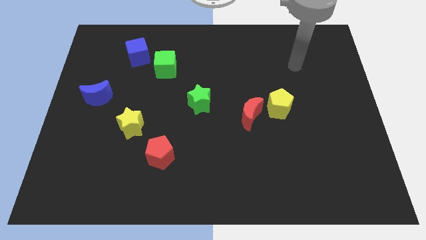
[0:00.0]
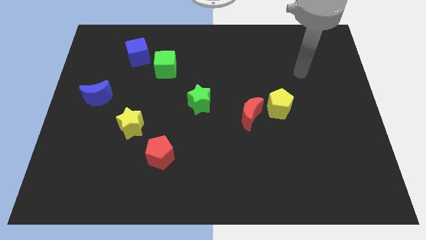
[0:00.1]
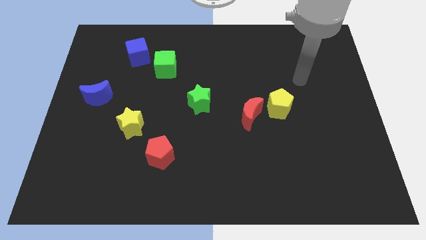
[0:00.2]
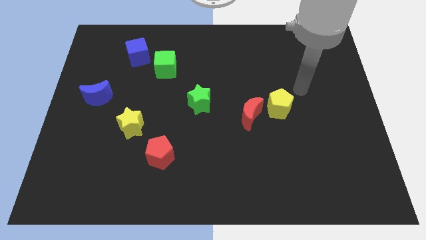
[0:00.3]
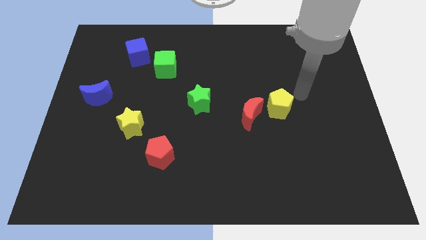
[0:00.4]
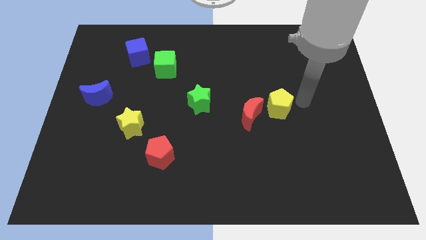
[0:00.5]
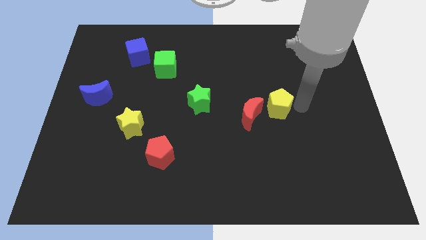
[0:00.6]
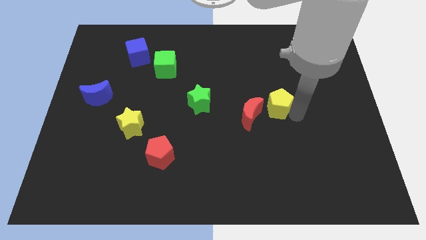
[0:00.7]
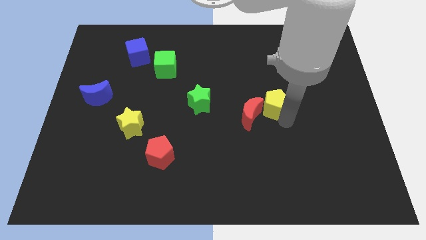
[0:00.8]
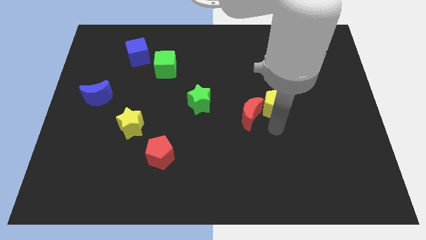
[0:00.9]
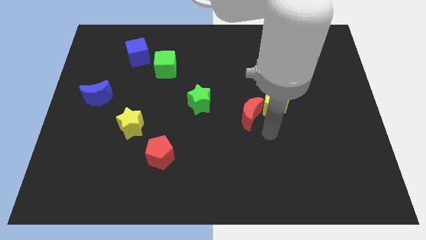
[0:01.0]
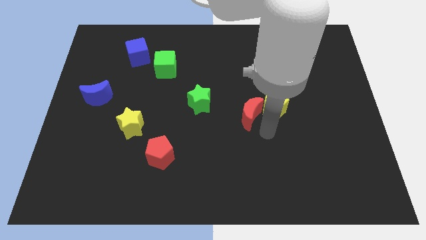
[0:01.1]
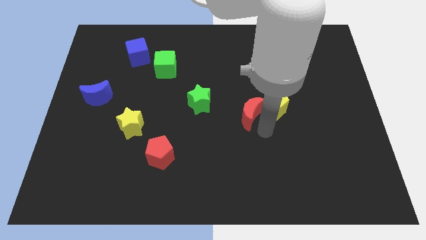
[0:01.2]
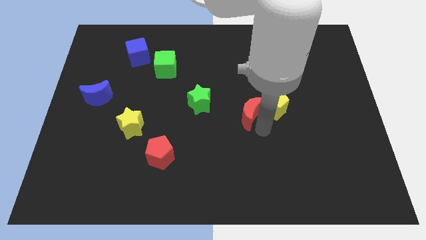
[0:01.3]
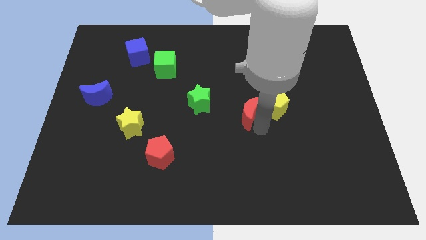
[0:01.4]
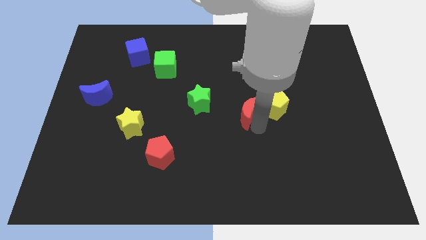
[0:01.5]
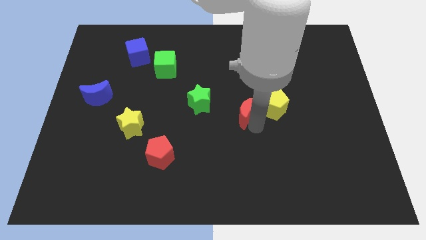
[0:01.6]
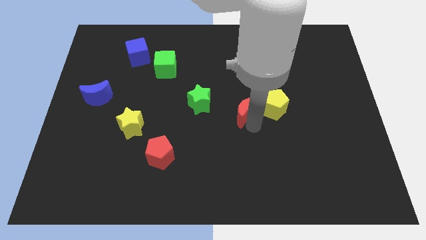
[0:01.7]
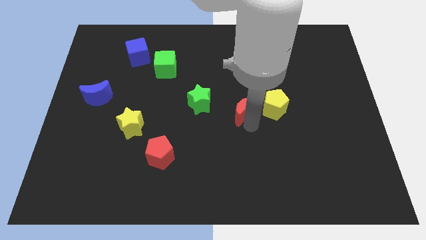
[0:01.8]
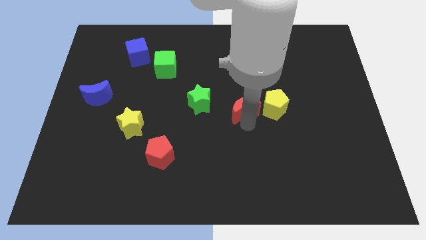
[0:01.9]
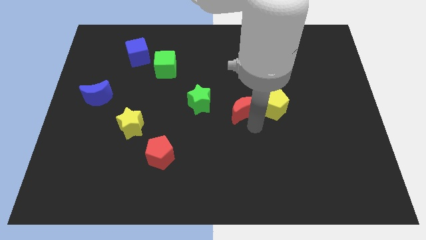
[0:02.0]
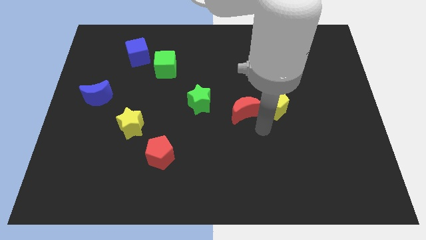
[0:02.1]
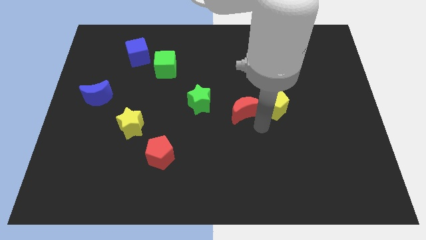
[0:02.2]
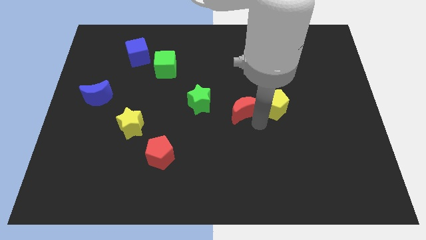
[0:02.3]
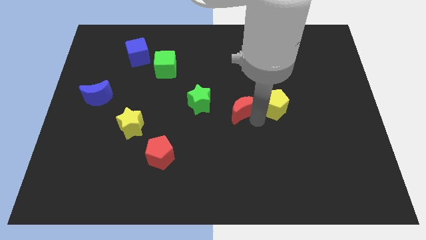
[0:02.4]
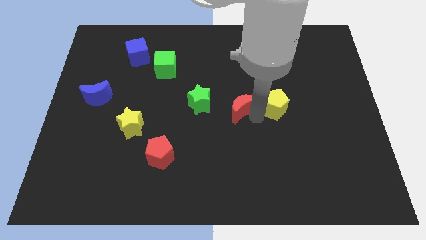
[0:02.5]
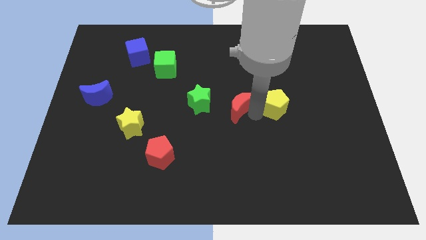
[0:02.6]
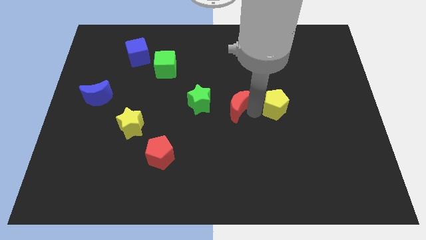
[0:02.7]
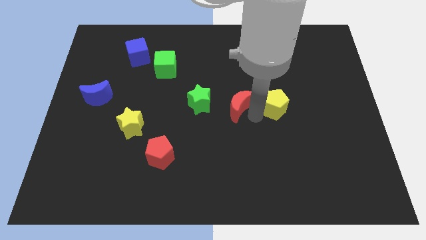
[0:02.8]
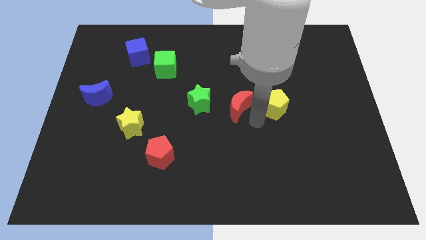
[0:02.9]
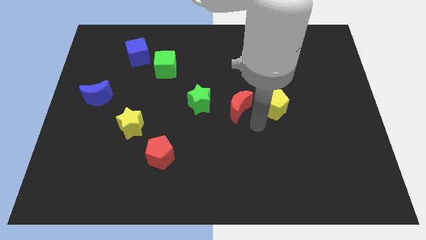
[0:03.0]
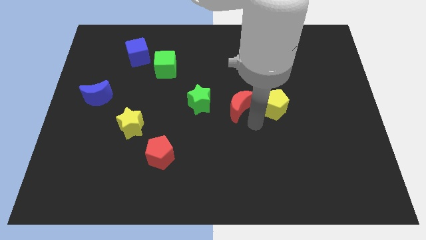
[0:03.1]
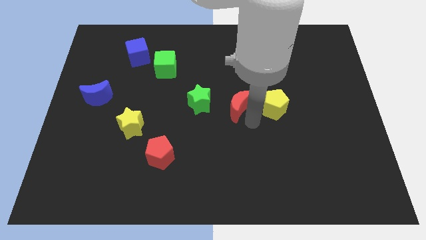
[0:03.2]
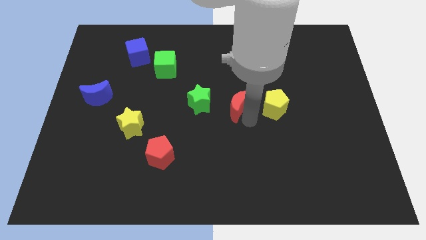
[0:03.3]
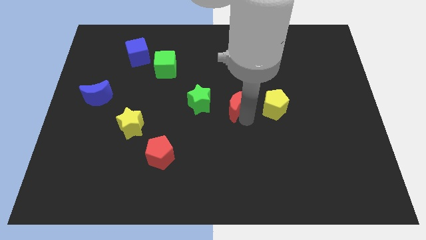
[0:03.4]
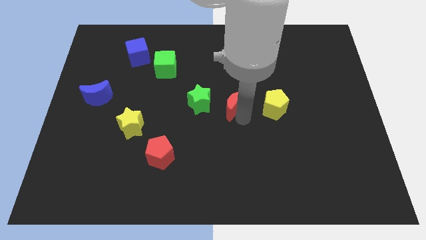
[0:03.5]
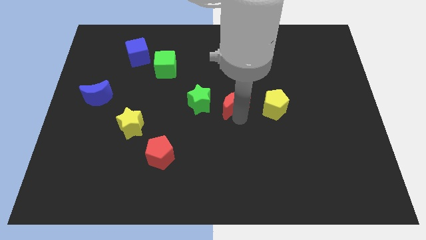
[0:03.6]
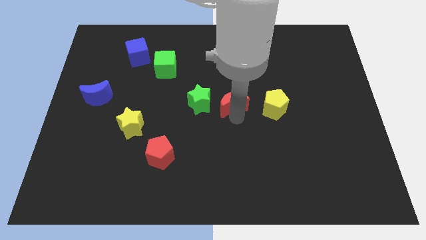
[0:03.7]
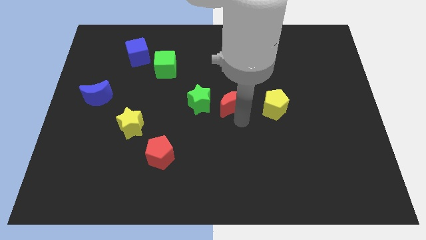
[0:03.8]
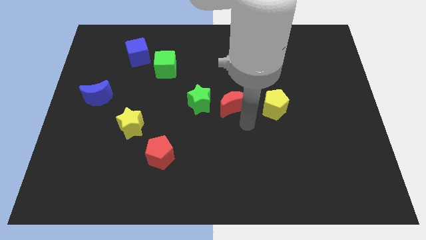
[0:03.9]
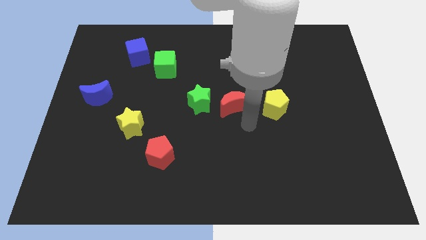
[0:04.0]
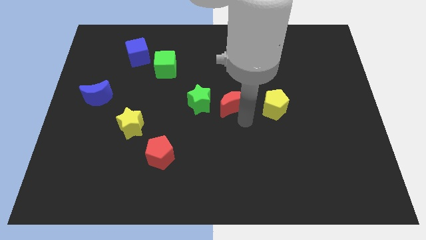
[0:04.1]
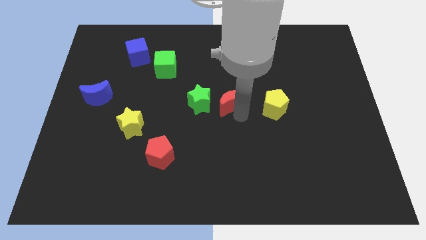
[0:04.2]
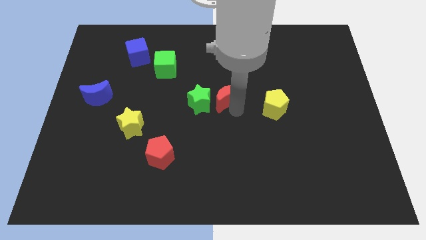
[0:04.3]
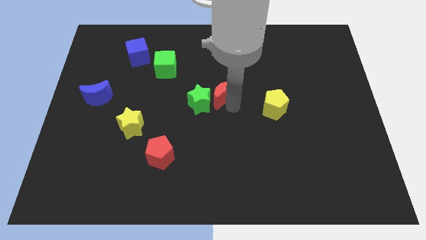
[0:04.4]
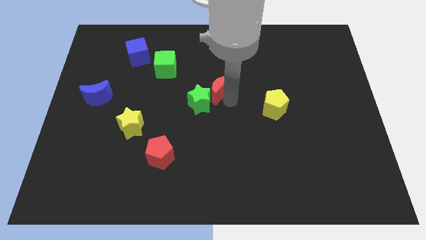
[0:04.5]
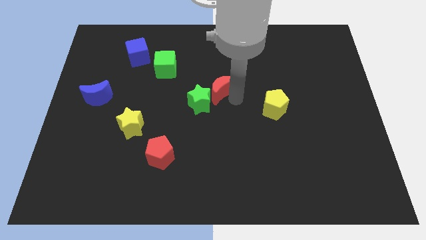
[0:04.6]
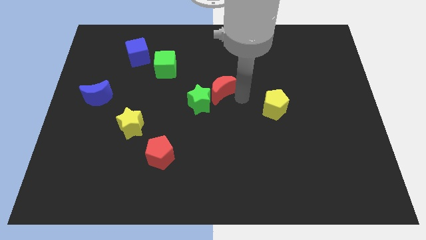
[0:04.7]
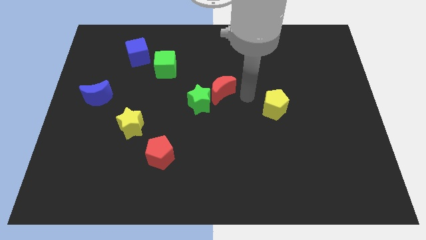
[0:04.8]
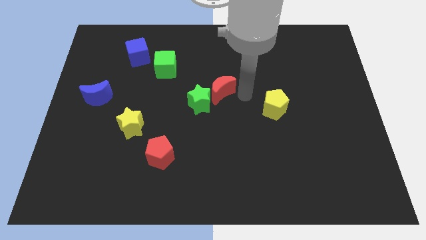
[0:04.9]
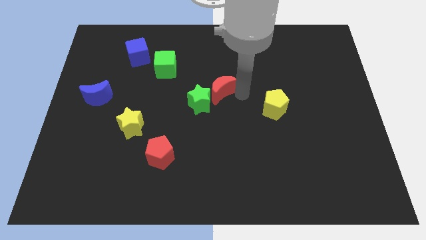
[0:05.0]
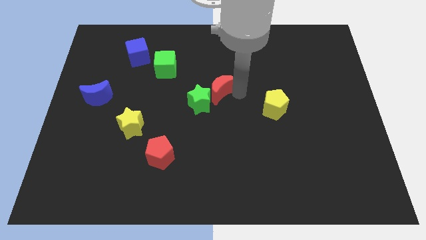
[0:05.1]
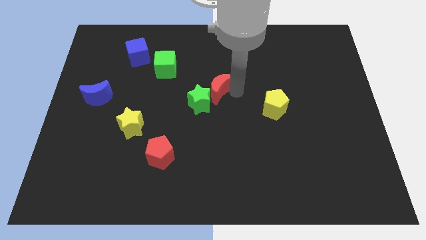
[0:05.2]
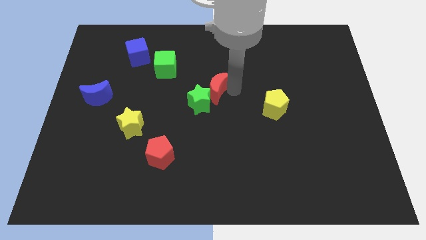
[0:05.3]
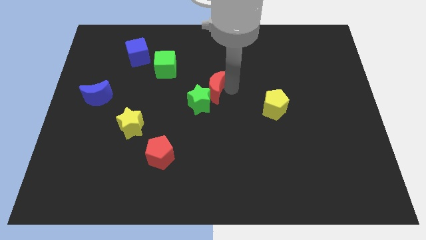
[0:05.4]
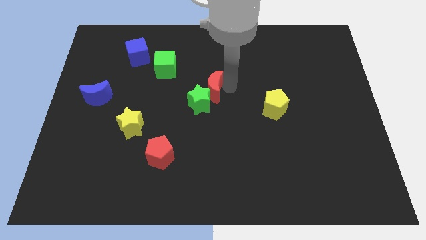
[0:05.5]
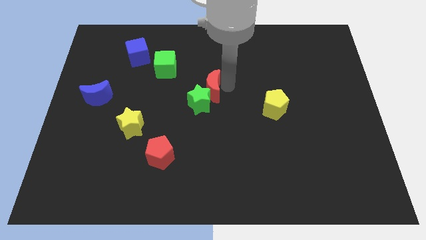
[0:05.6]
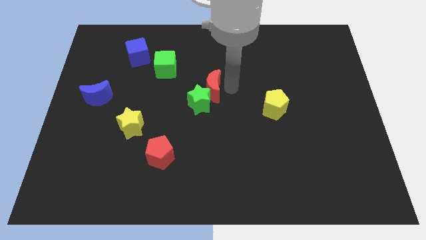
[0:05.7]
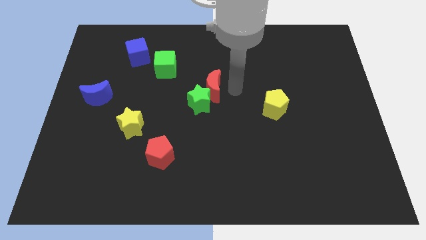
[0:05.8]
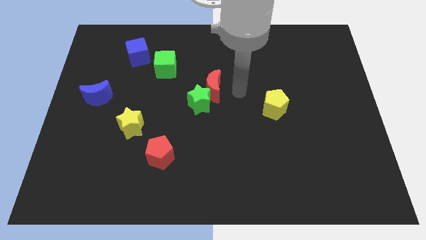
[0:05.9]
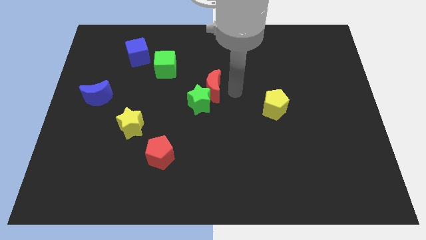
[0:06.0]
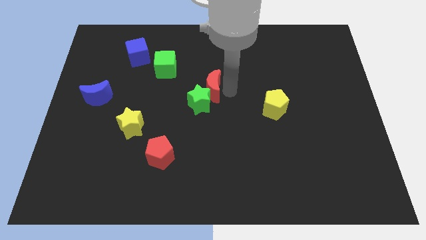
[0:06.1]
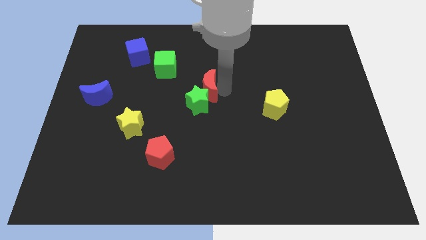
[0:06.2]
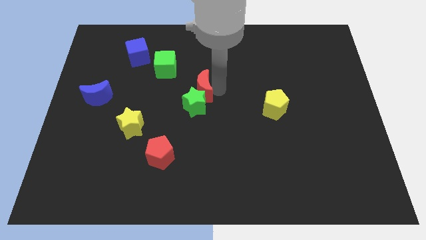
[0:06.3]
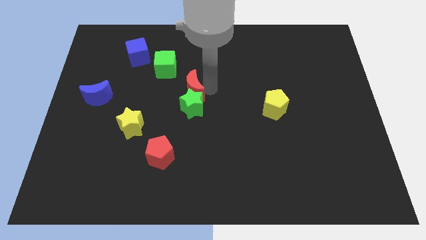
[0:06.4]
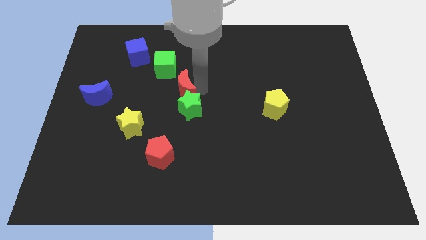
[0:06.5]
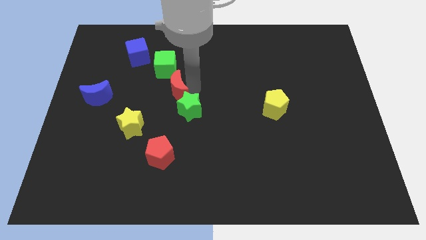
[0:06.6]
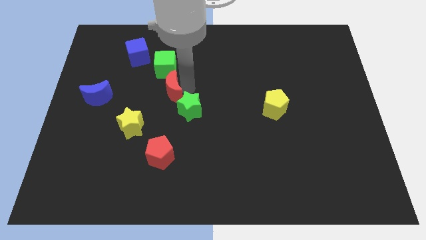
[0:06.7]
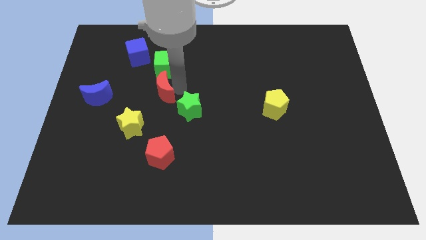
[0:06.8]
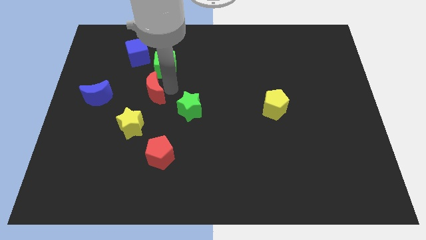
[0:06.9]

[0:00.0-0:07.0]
push the red moon left

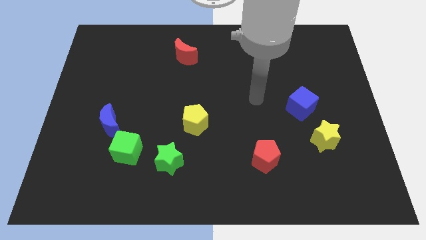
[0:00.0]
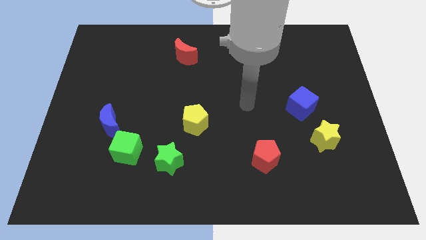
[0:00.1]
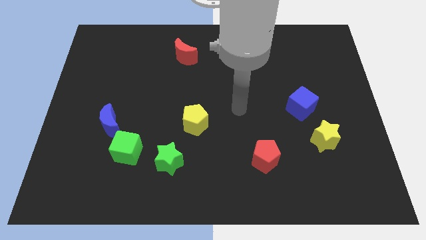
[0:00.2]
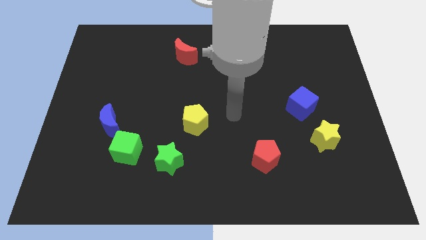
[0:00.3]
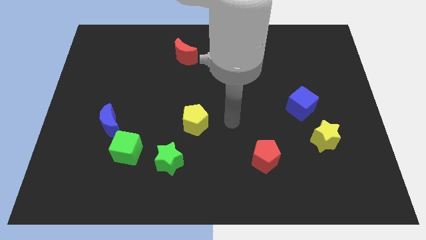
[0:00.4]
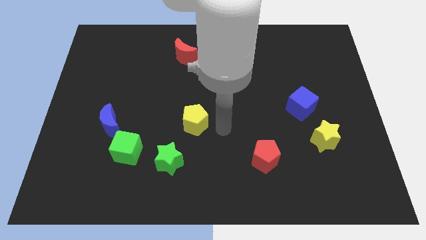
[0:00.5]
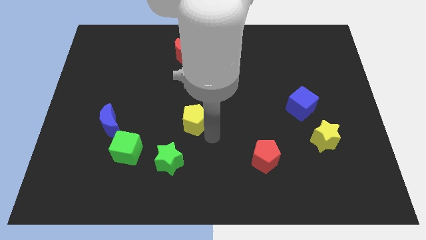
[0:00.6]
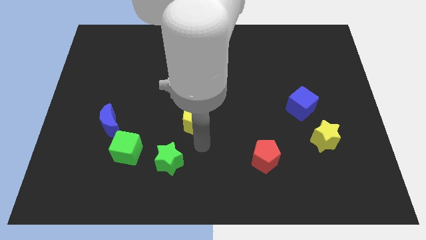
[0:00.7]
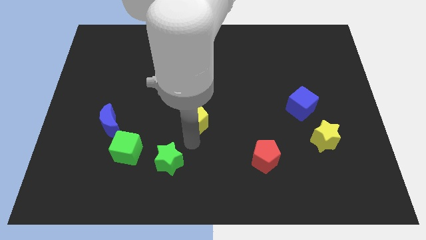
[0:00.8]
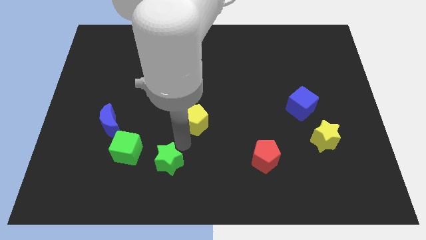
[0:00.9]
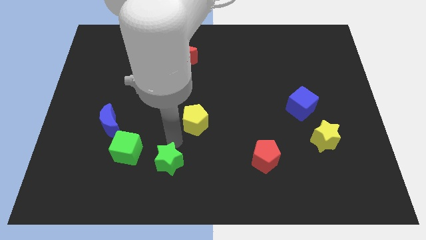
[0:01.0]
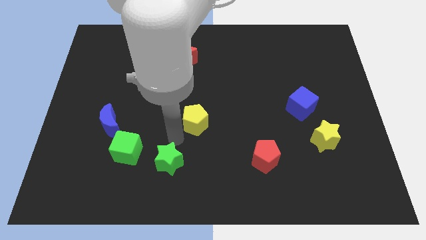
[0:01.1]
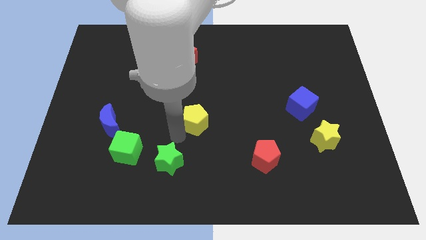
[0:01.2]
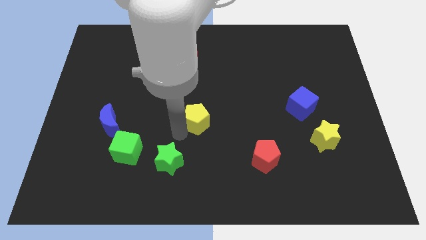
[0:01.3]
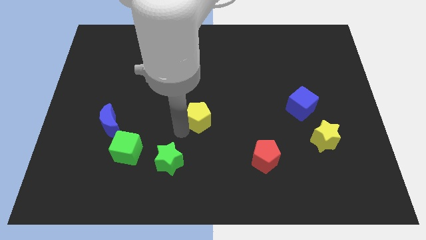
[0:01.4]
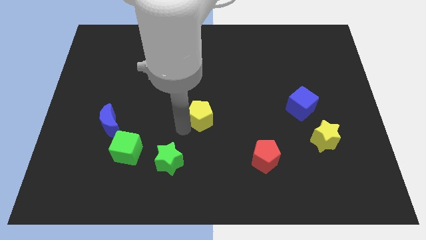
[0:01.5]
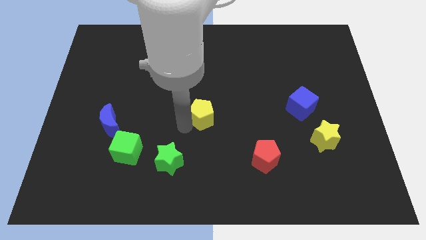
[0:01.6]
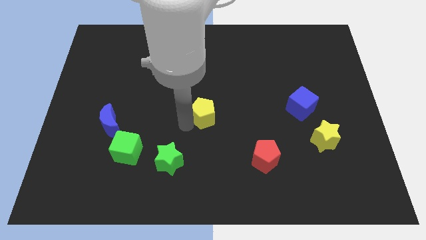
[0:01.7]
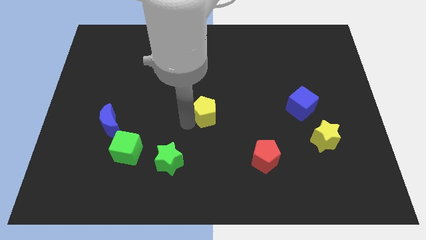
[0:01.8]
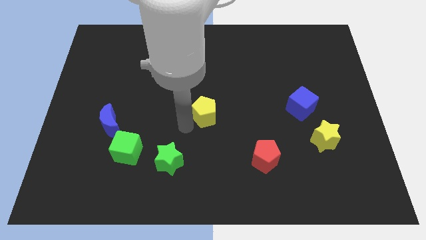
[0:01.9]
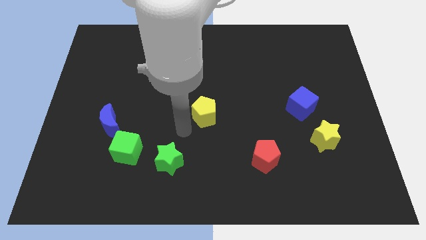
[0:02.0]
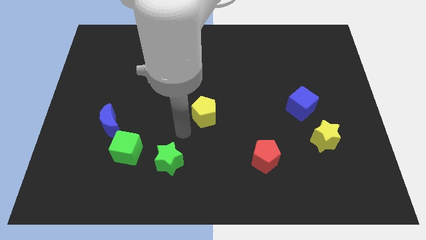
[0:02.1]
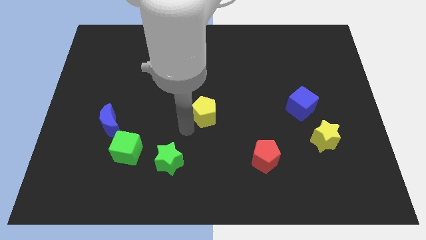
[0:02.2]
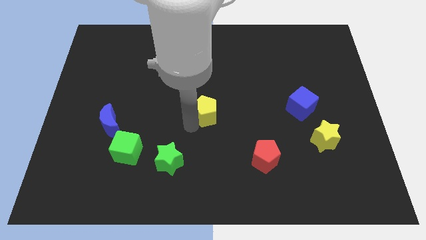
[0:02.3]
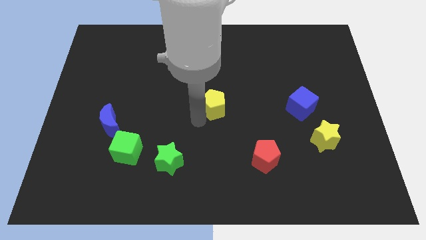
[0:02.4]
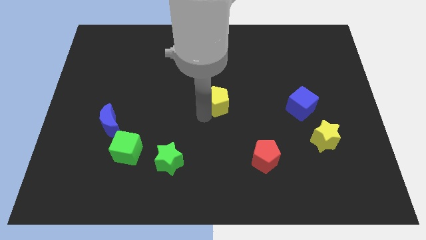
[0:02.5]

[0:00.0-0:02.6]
slightly slide the yellow pentagon upwards and to the right
